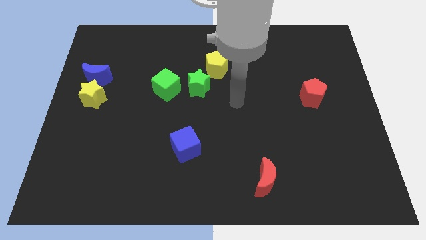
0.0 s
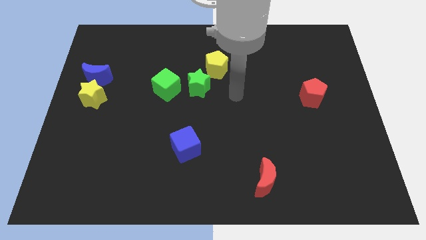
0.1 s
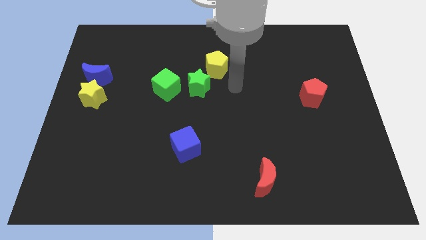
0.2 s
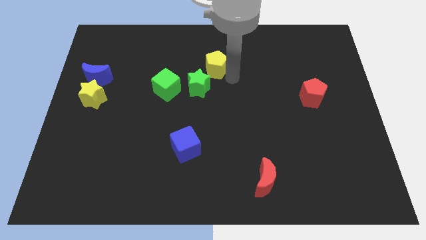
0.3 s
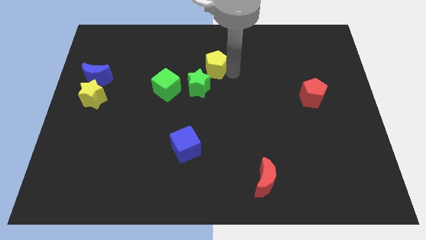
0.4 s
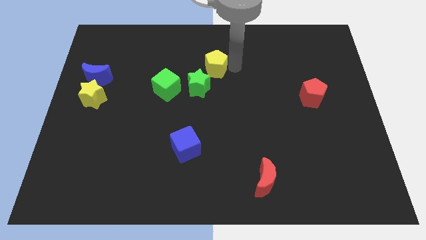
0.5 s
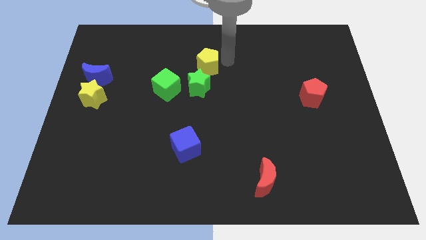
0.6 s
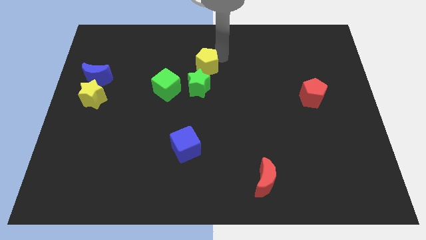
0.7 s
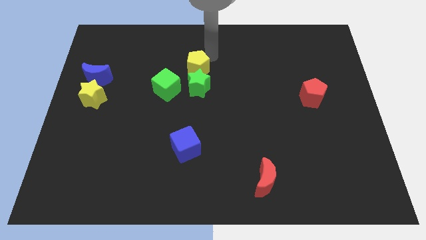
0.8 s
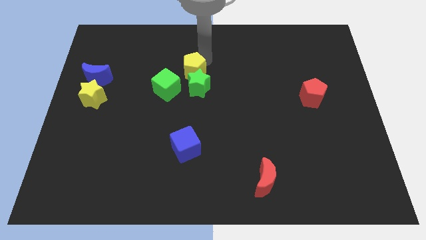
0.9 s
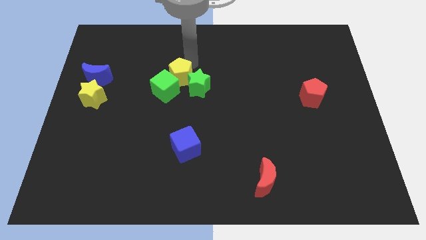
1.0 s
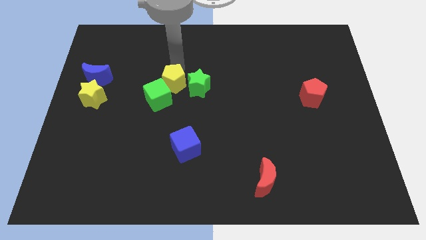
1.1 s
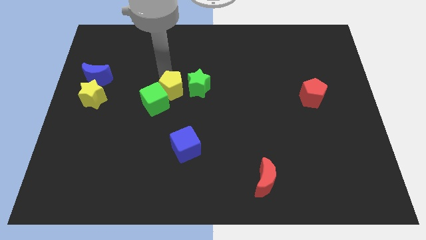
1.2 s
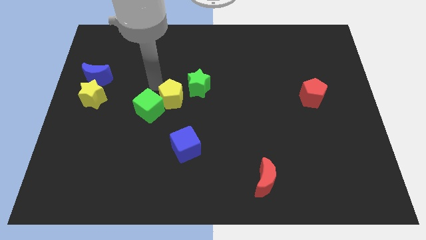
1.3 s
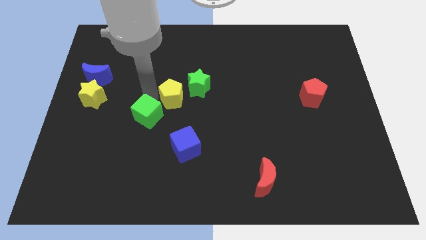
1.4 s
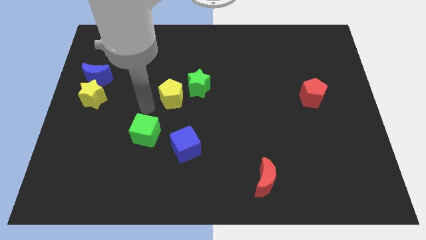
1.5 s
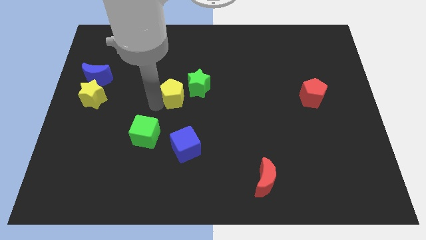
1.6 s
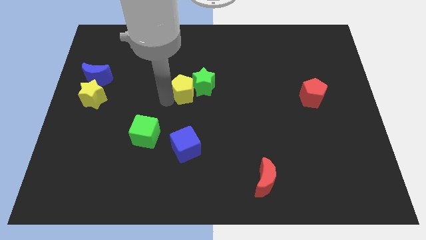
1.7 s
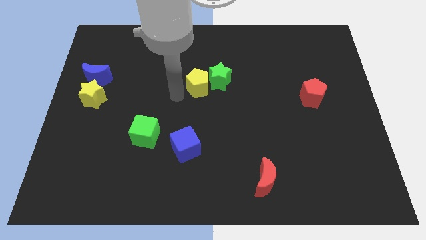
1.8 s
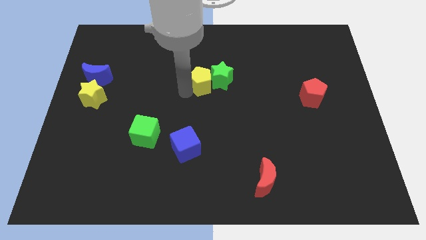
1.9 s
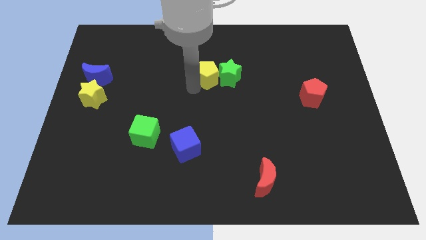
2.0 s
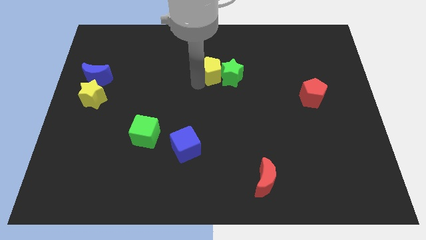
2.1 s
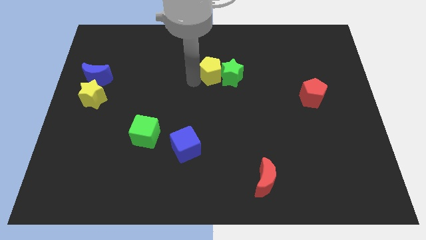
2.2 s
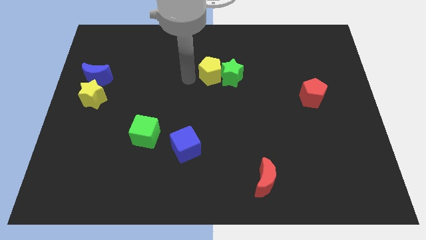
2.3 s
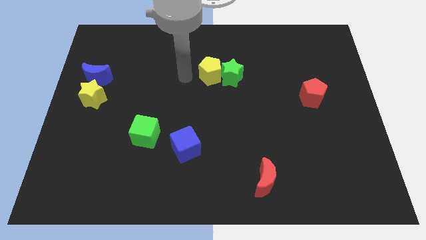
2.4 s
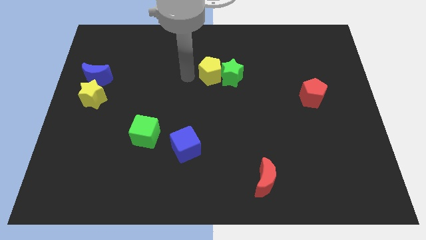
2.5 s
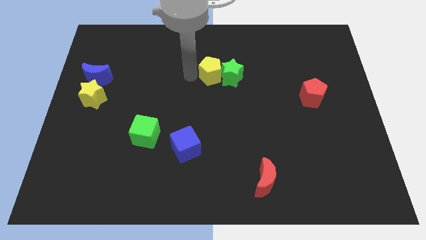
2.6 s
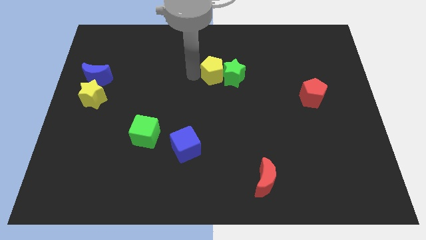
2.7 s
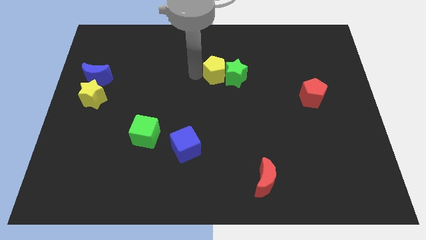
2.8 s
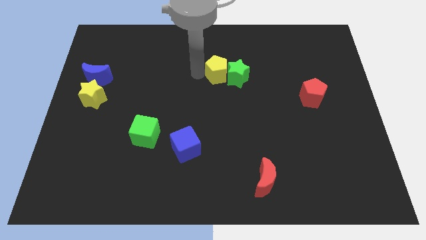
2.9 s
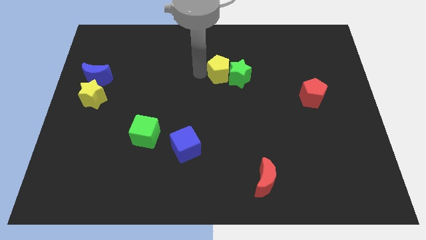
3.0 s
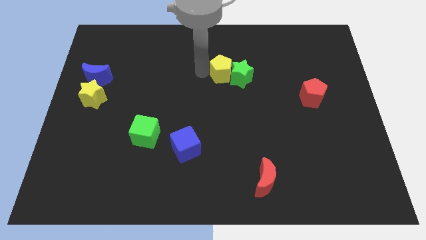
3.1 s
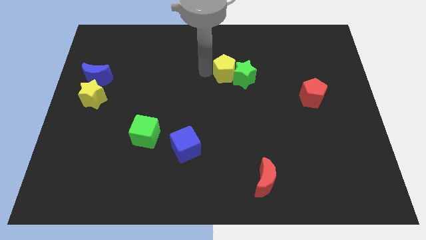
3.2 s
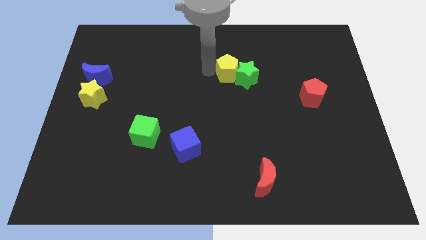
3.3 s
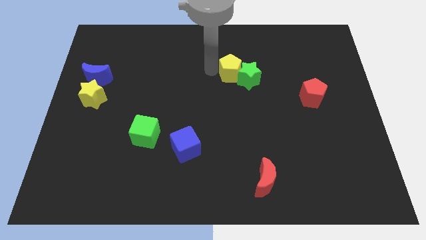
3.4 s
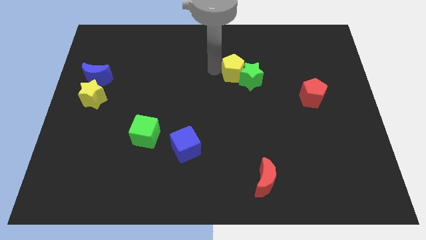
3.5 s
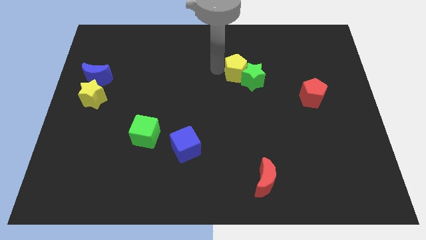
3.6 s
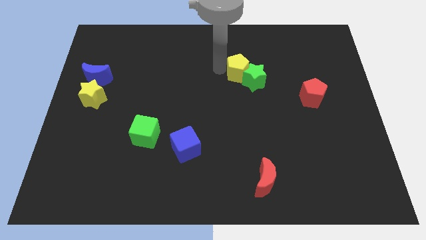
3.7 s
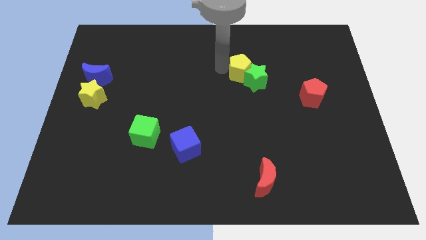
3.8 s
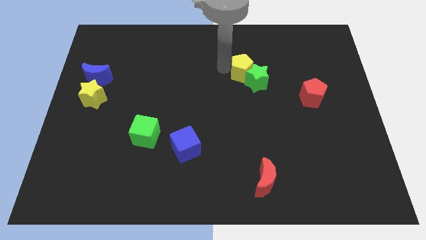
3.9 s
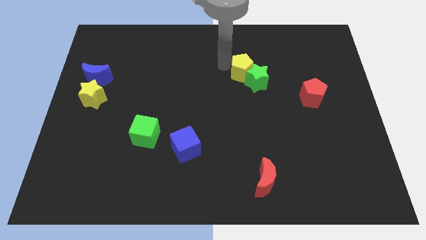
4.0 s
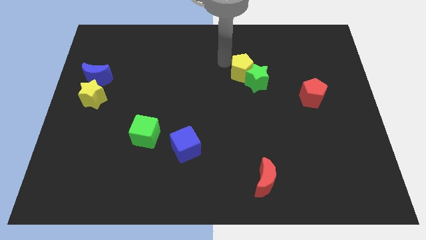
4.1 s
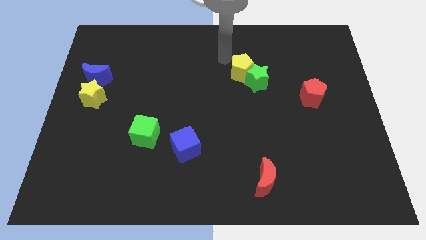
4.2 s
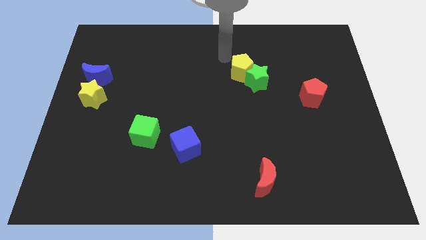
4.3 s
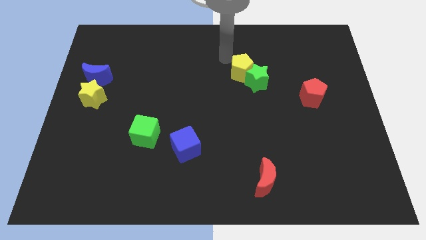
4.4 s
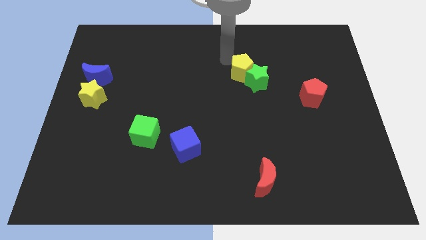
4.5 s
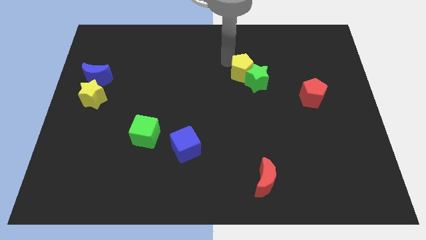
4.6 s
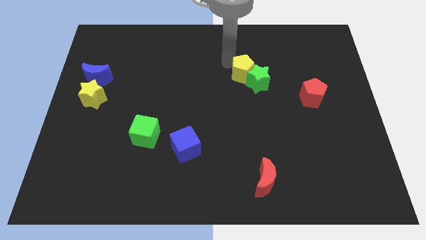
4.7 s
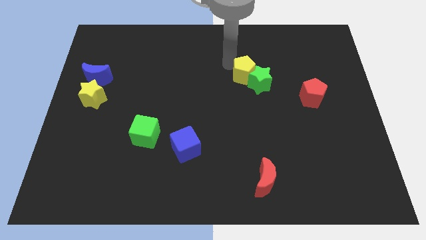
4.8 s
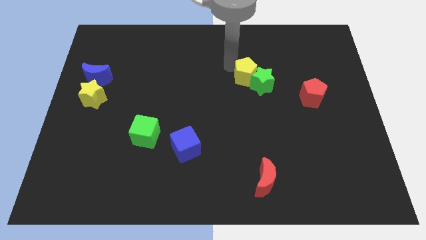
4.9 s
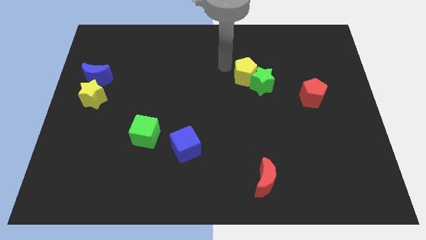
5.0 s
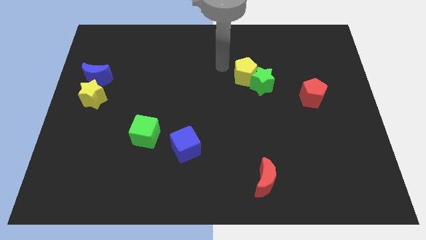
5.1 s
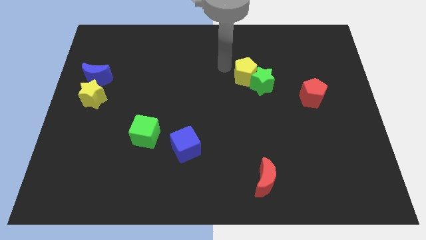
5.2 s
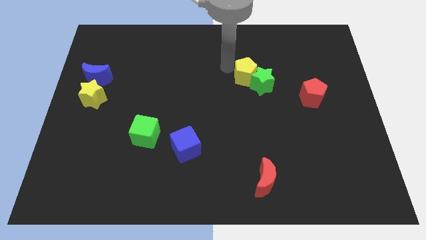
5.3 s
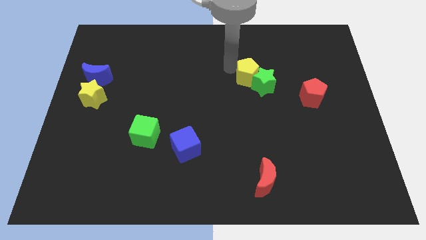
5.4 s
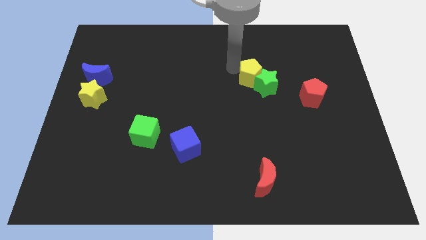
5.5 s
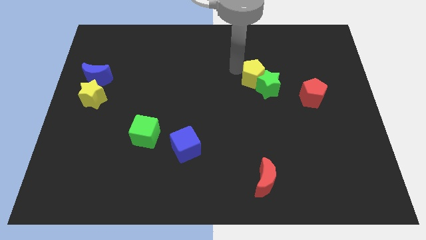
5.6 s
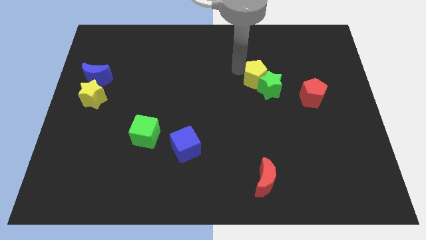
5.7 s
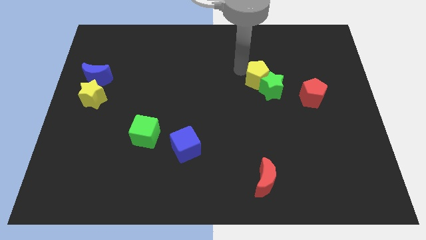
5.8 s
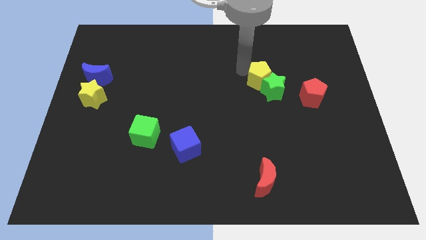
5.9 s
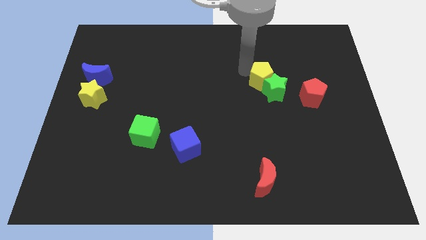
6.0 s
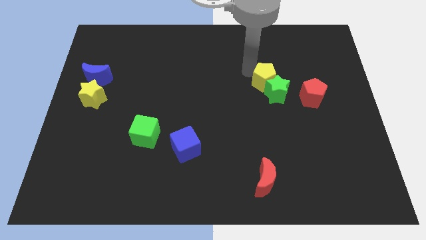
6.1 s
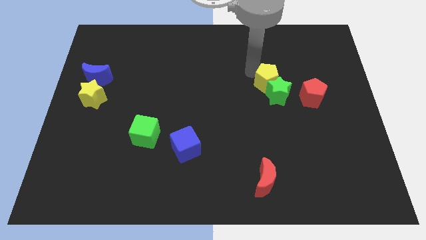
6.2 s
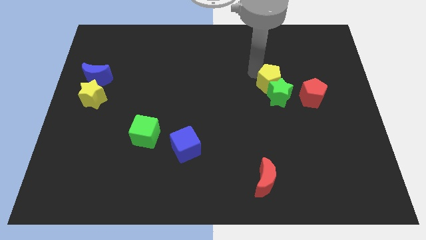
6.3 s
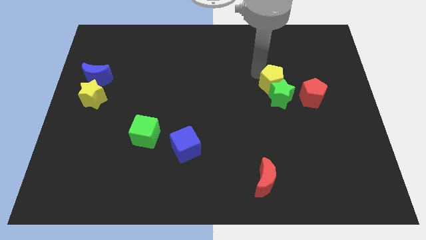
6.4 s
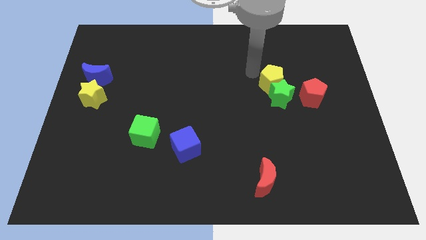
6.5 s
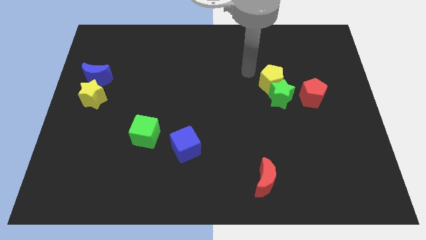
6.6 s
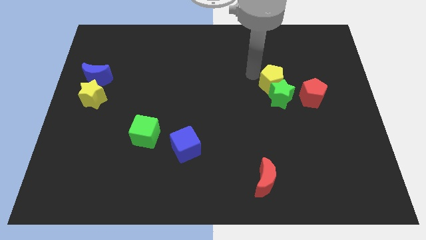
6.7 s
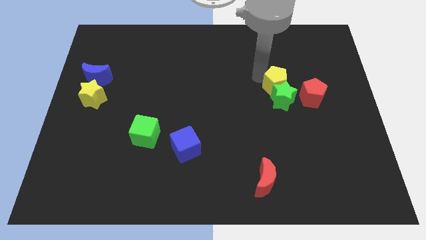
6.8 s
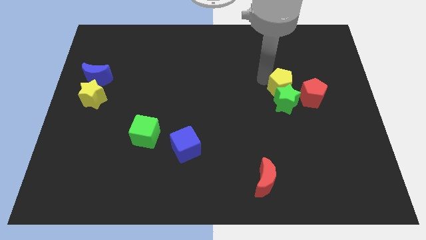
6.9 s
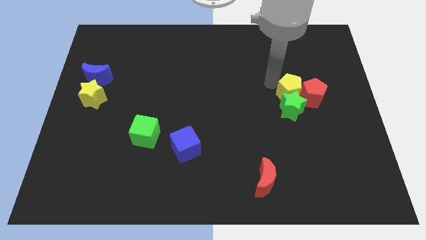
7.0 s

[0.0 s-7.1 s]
push the yellow pentagon close to the red pentagon

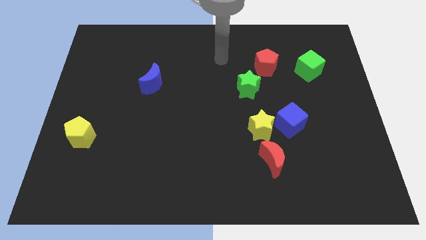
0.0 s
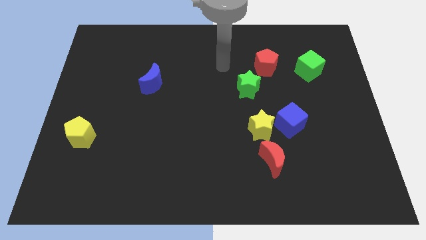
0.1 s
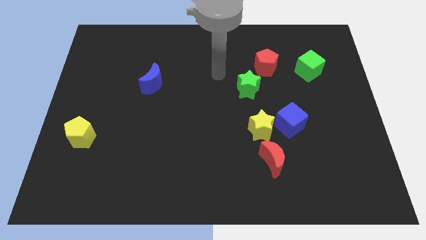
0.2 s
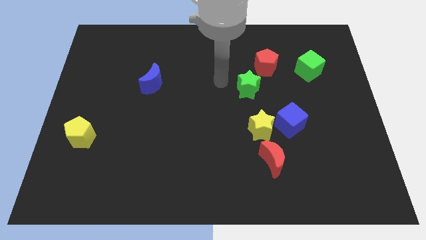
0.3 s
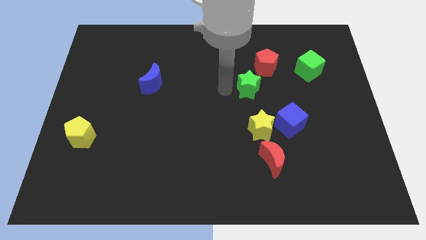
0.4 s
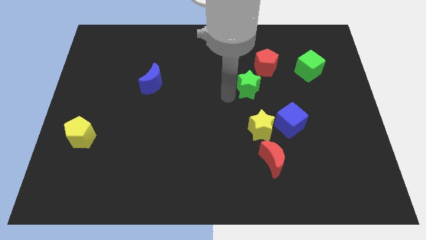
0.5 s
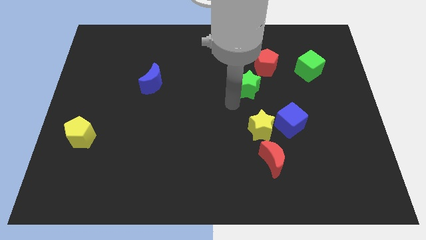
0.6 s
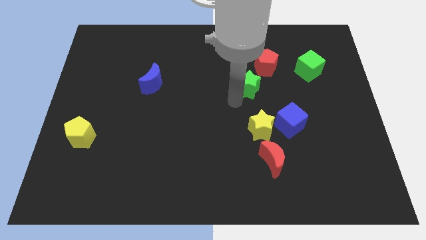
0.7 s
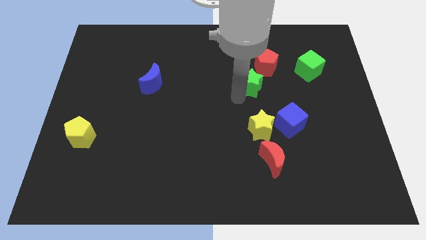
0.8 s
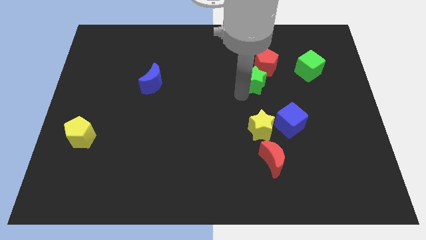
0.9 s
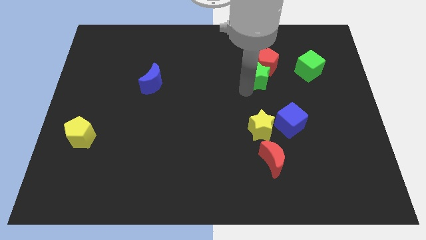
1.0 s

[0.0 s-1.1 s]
put the green star towards the red pentagon
